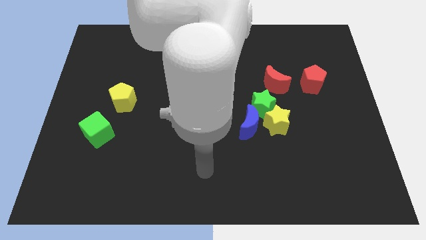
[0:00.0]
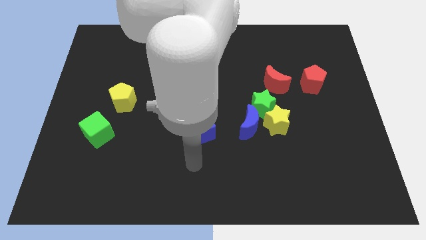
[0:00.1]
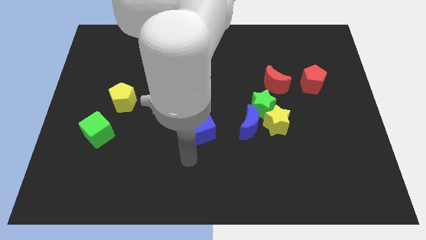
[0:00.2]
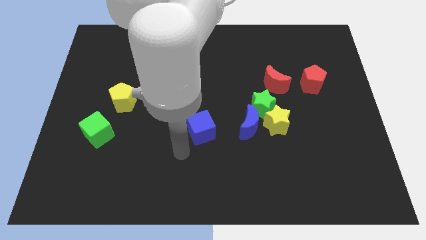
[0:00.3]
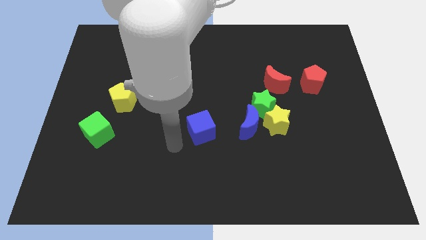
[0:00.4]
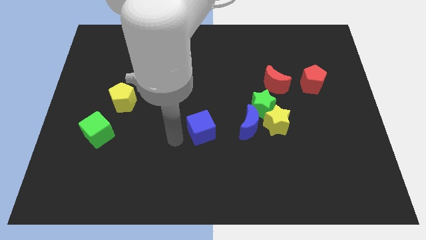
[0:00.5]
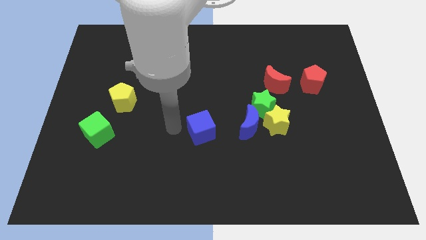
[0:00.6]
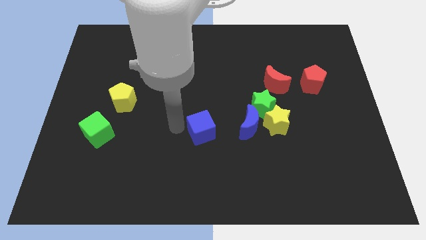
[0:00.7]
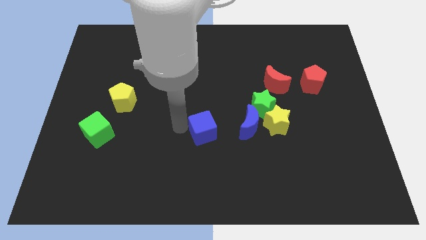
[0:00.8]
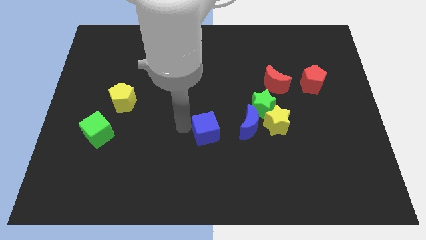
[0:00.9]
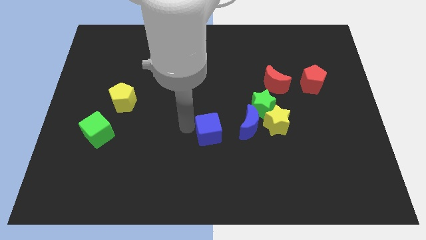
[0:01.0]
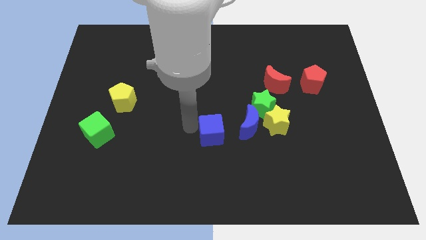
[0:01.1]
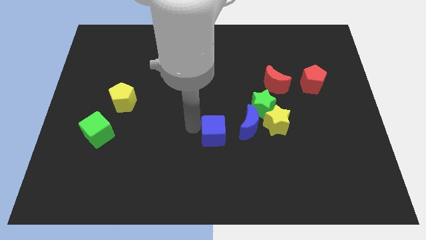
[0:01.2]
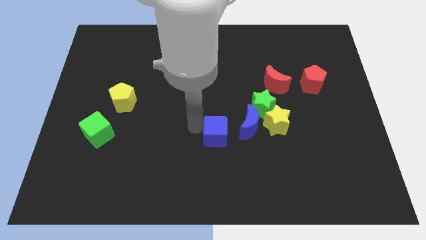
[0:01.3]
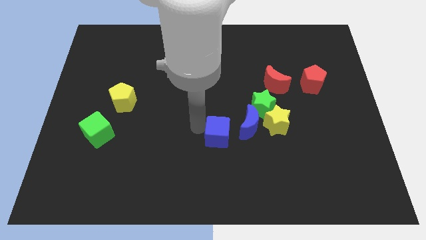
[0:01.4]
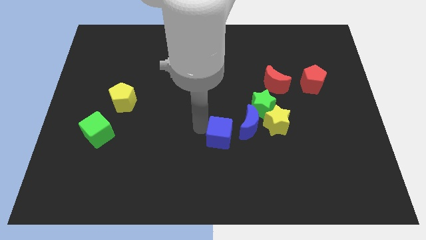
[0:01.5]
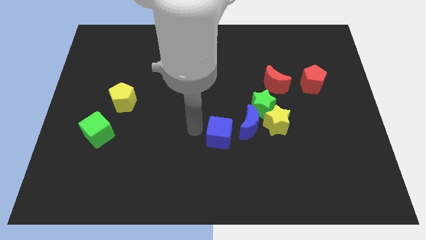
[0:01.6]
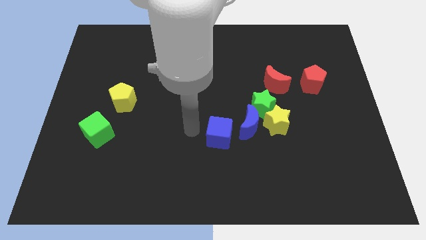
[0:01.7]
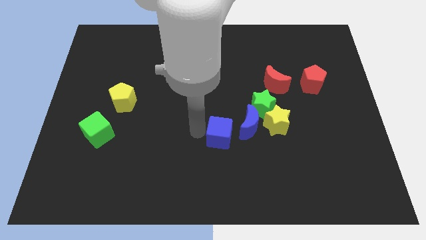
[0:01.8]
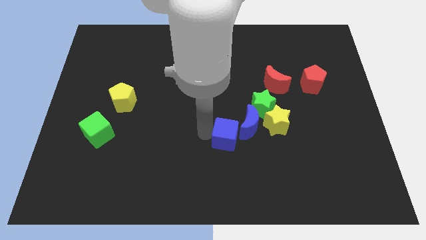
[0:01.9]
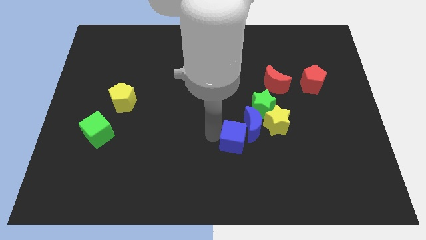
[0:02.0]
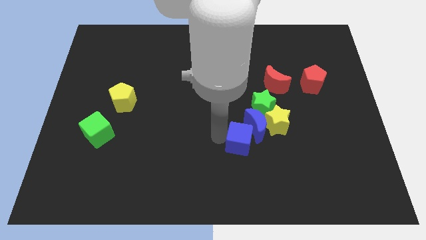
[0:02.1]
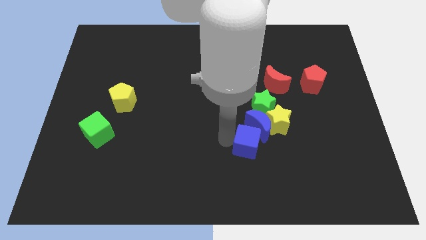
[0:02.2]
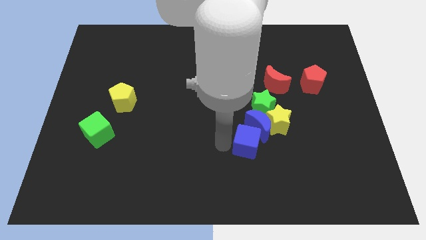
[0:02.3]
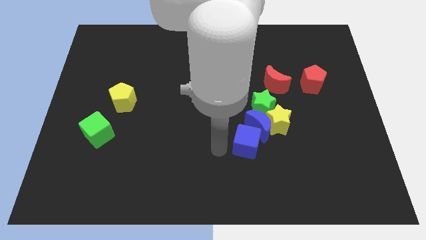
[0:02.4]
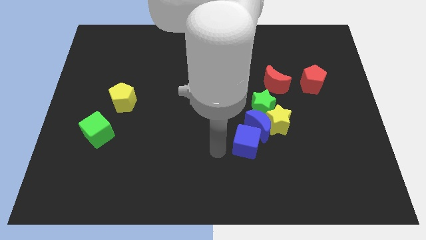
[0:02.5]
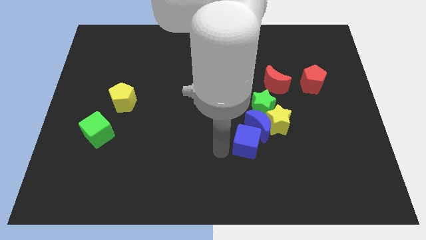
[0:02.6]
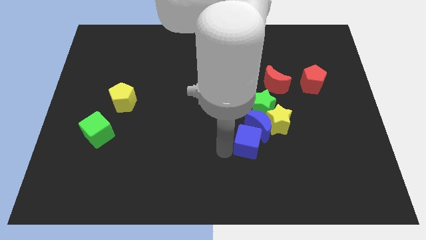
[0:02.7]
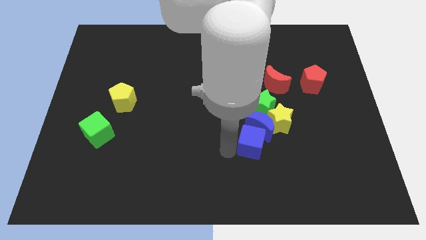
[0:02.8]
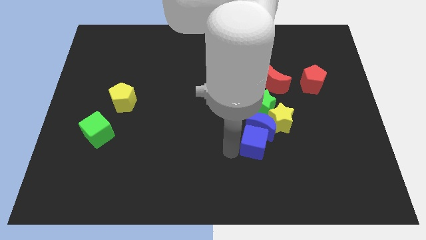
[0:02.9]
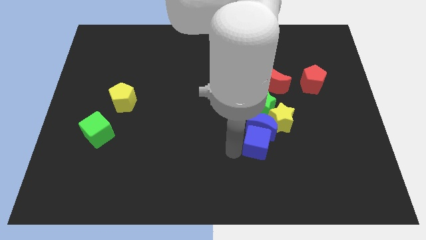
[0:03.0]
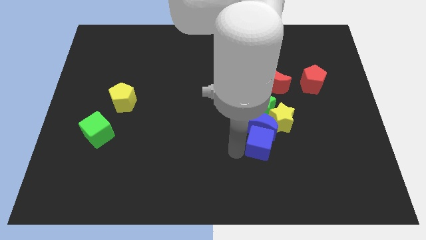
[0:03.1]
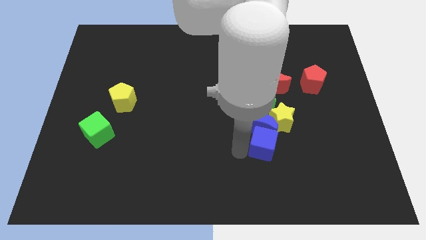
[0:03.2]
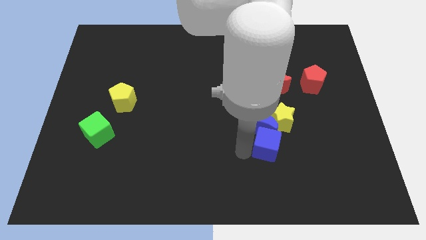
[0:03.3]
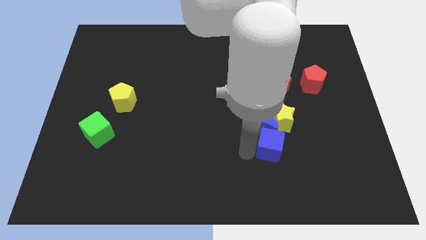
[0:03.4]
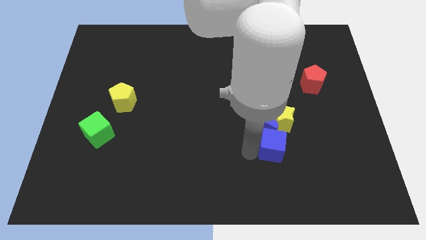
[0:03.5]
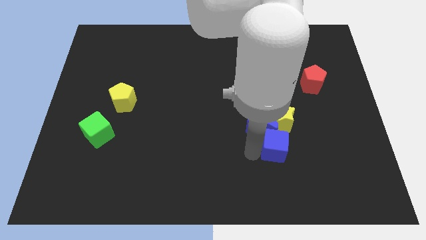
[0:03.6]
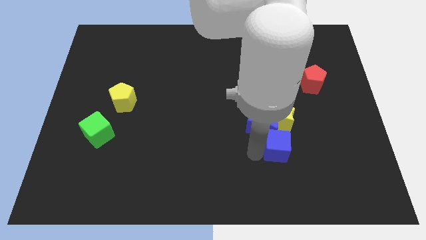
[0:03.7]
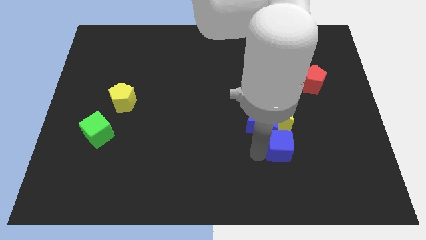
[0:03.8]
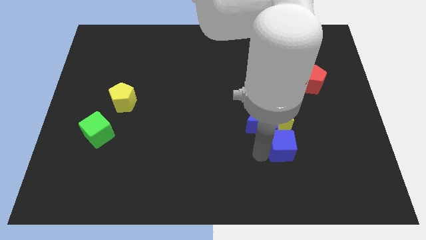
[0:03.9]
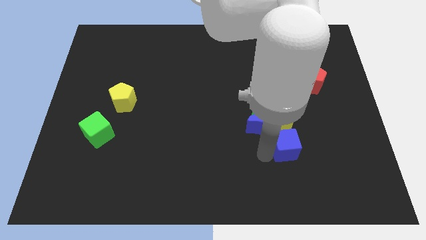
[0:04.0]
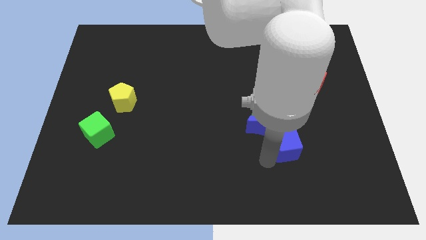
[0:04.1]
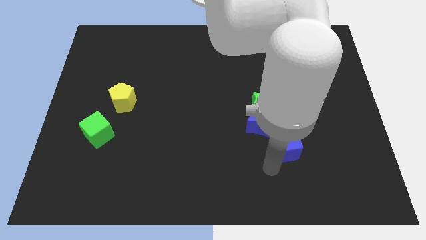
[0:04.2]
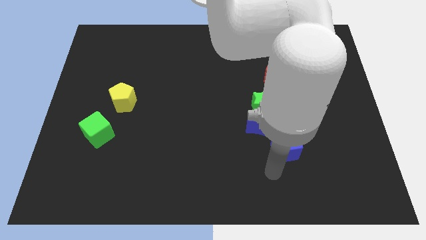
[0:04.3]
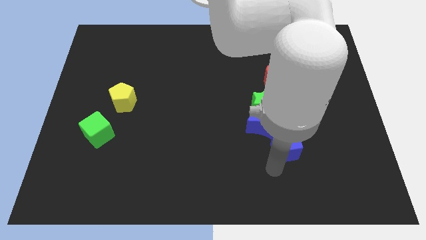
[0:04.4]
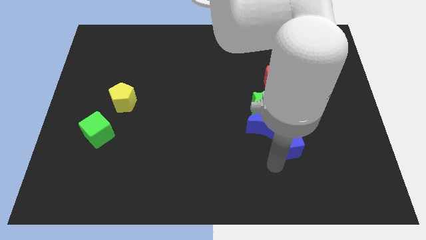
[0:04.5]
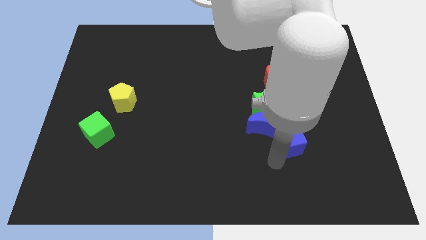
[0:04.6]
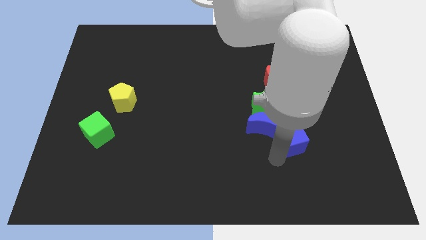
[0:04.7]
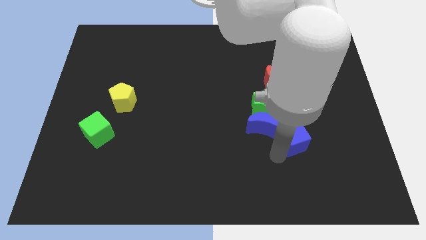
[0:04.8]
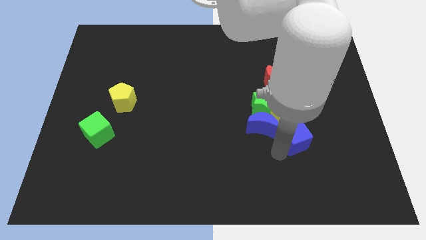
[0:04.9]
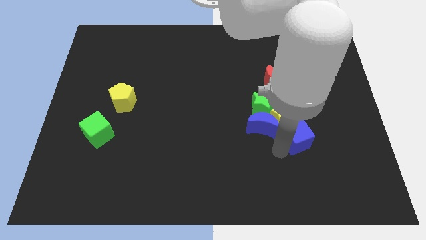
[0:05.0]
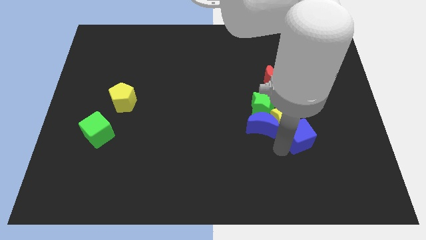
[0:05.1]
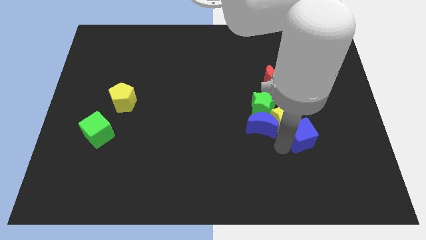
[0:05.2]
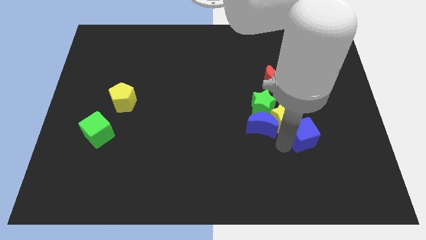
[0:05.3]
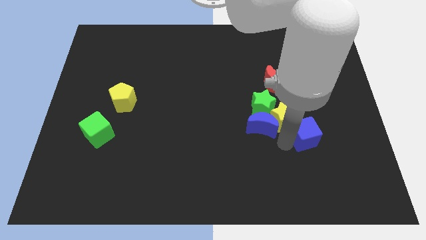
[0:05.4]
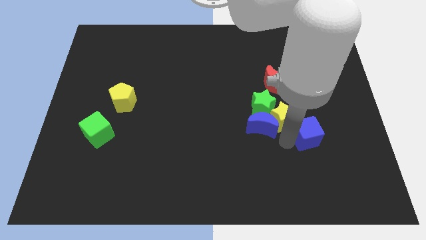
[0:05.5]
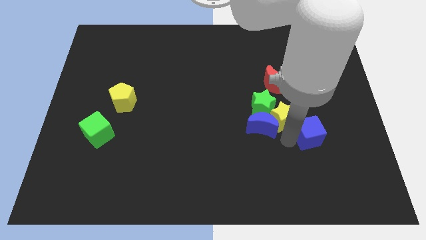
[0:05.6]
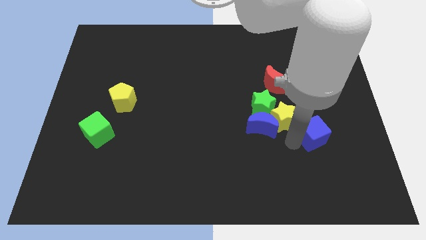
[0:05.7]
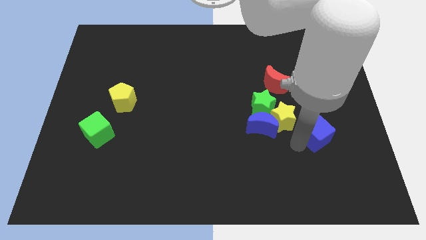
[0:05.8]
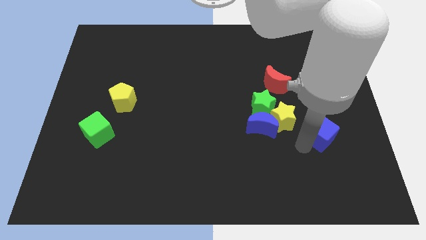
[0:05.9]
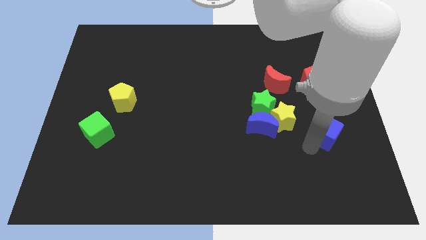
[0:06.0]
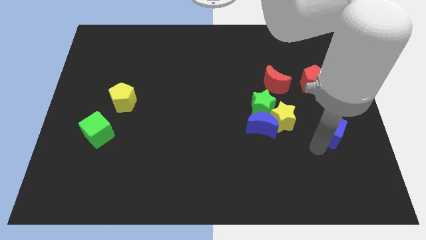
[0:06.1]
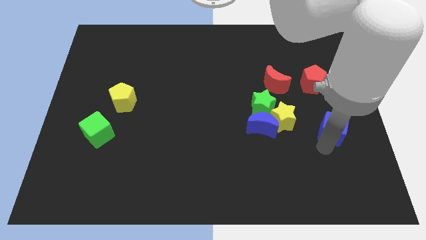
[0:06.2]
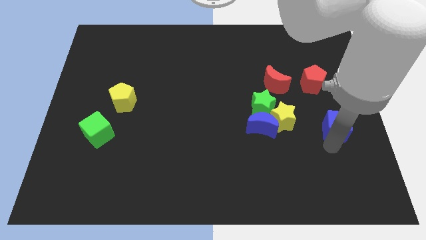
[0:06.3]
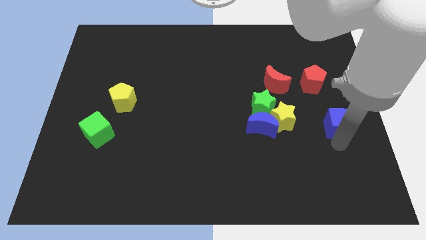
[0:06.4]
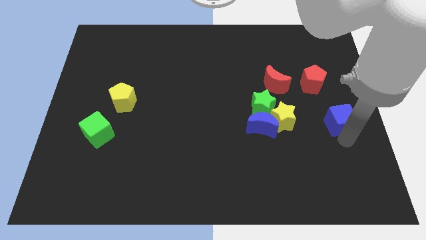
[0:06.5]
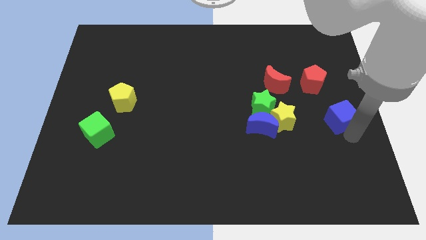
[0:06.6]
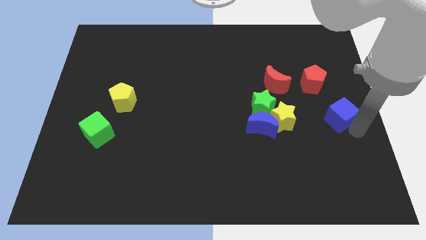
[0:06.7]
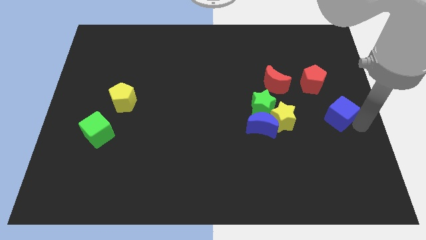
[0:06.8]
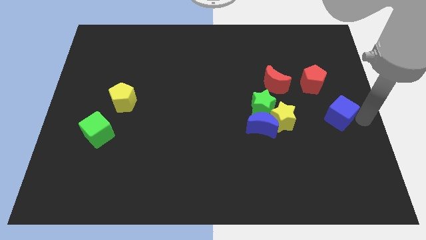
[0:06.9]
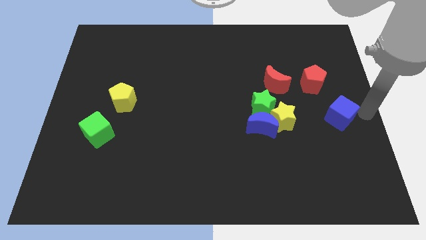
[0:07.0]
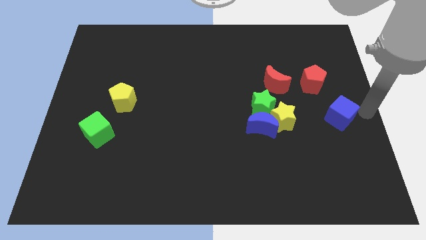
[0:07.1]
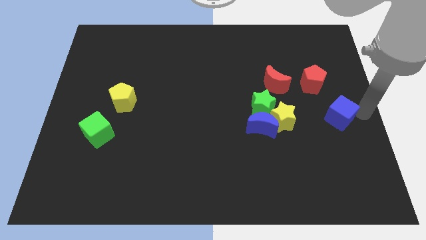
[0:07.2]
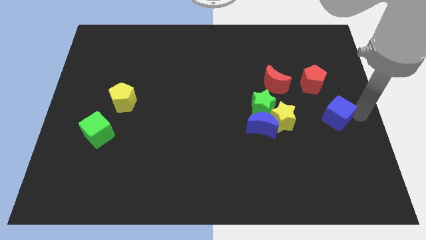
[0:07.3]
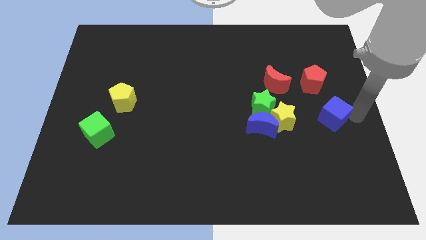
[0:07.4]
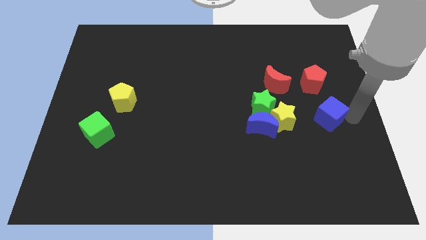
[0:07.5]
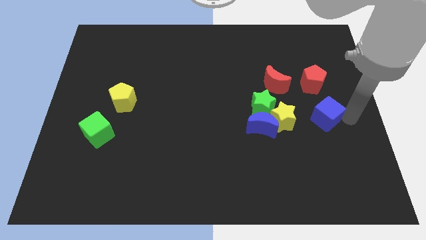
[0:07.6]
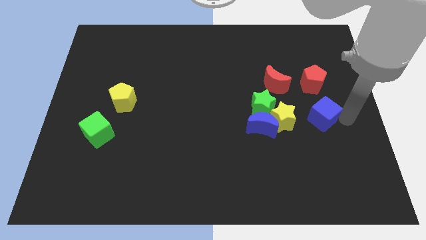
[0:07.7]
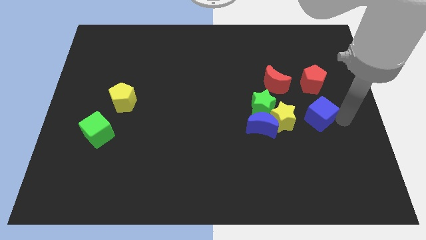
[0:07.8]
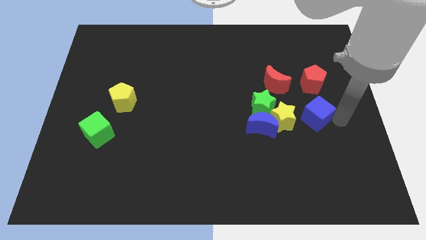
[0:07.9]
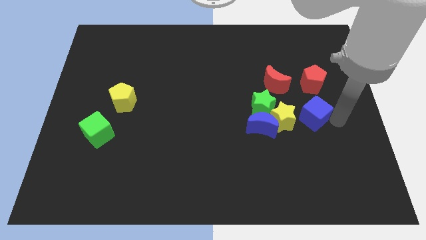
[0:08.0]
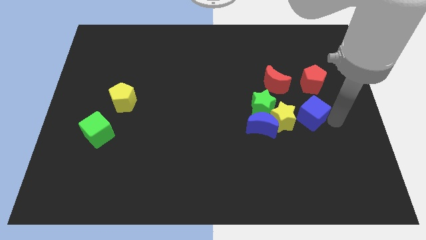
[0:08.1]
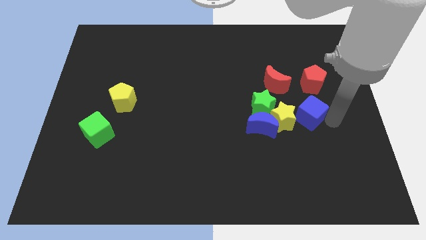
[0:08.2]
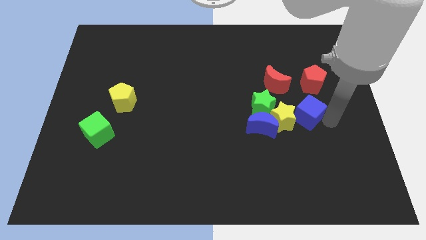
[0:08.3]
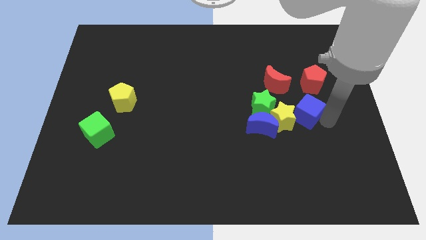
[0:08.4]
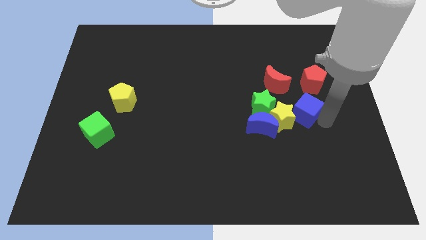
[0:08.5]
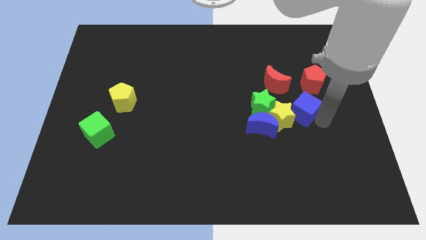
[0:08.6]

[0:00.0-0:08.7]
put the blue cube to the top right of the blue moon
